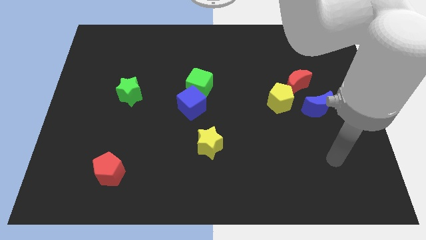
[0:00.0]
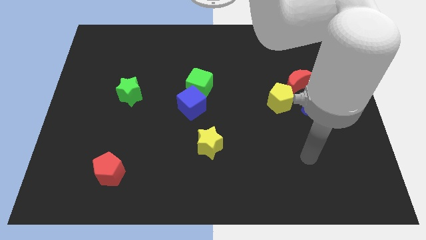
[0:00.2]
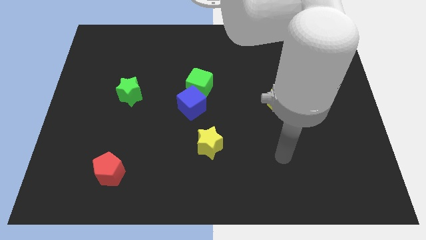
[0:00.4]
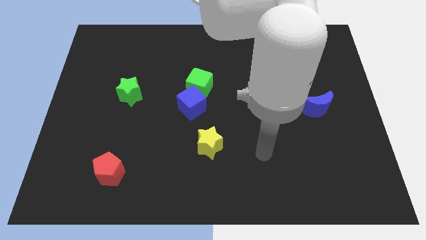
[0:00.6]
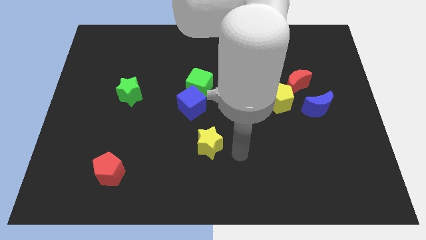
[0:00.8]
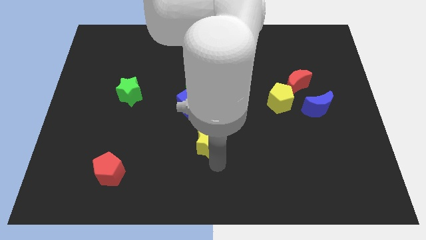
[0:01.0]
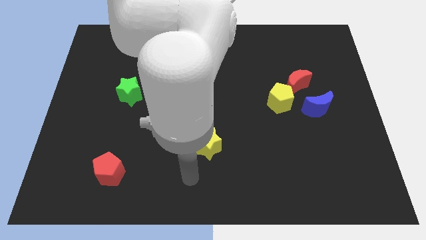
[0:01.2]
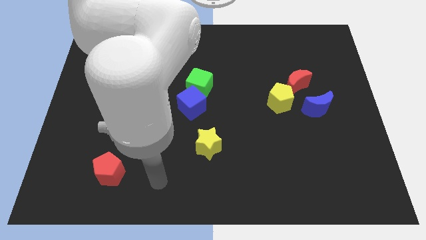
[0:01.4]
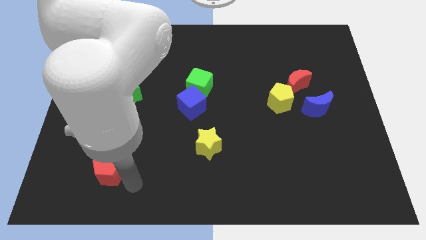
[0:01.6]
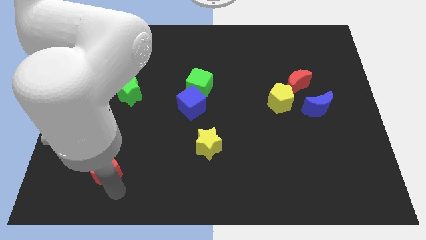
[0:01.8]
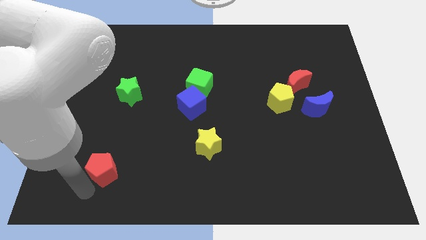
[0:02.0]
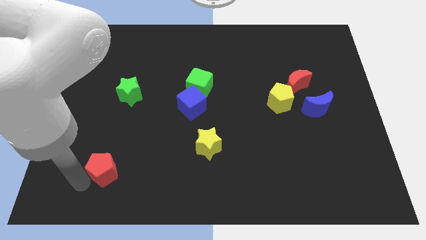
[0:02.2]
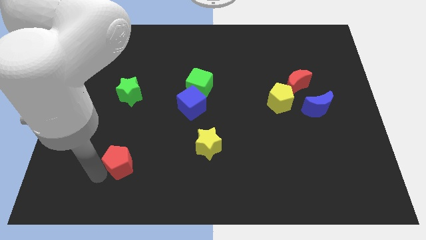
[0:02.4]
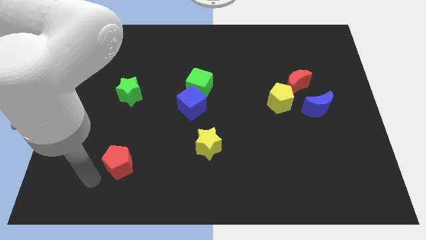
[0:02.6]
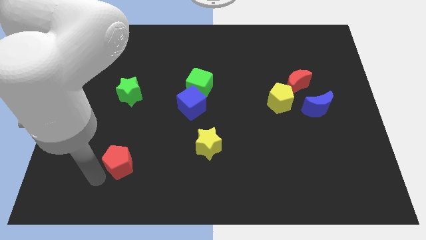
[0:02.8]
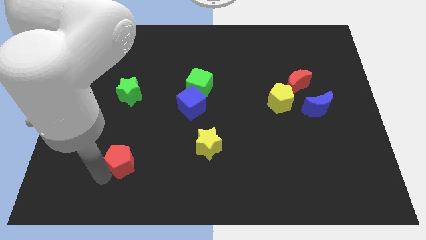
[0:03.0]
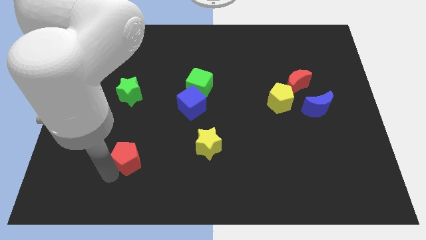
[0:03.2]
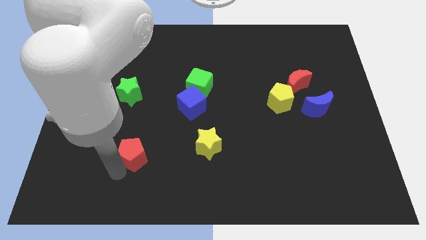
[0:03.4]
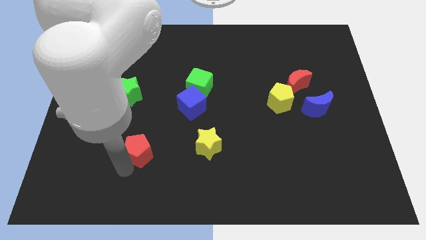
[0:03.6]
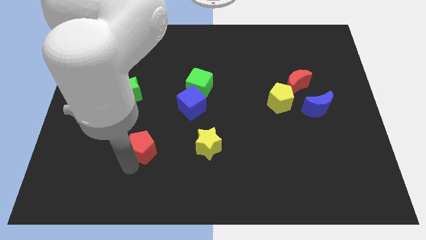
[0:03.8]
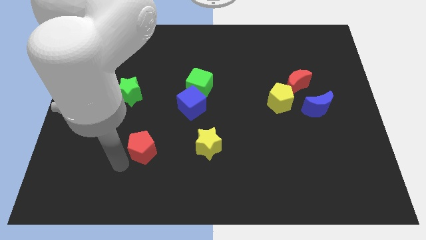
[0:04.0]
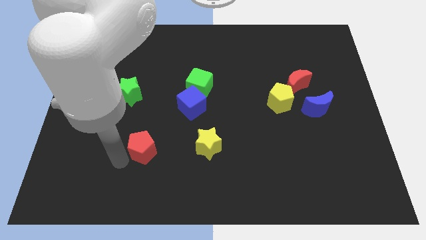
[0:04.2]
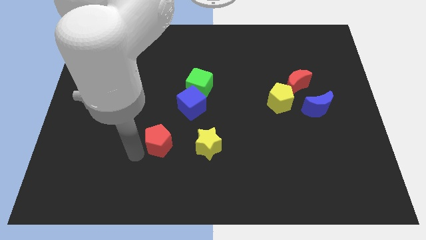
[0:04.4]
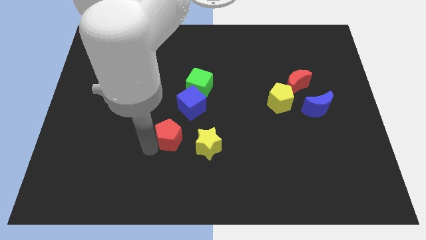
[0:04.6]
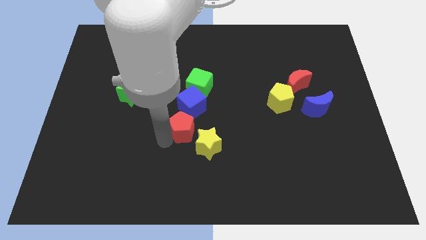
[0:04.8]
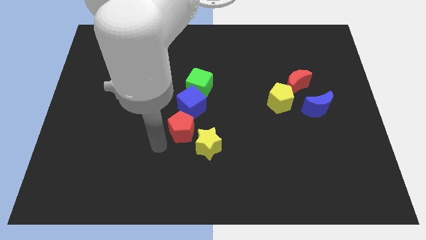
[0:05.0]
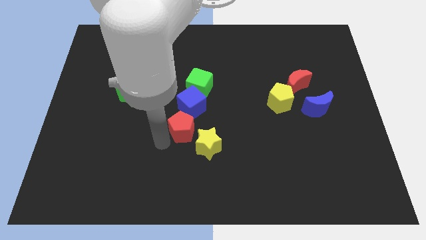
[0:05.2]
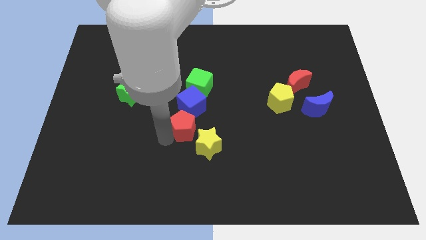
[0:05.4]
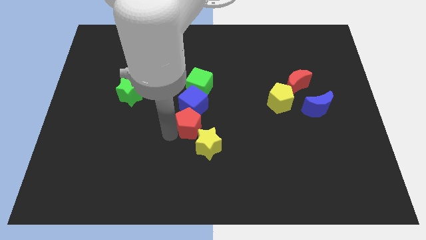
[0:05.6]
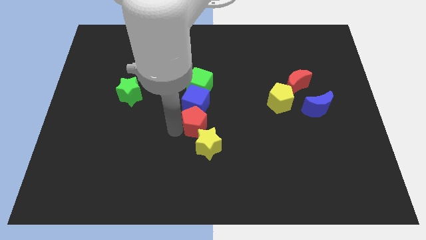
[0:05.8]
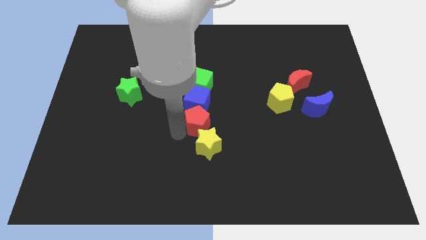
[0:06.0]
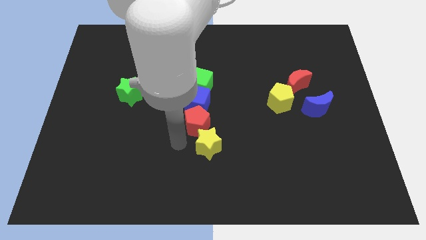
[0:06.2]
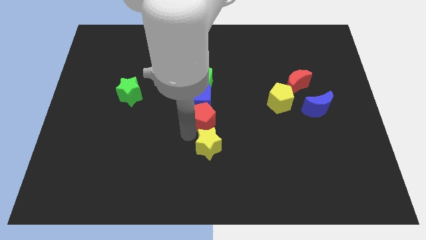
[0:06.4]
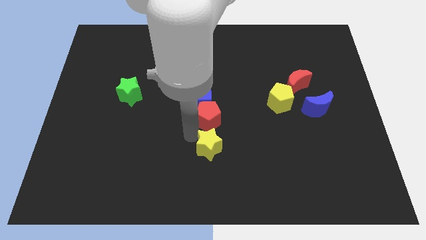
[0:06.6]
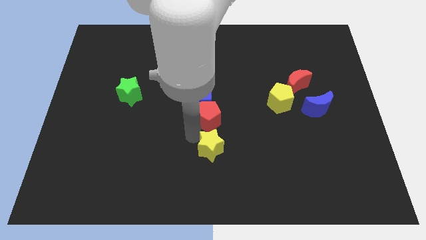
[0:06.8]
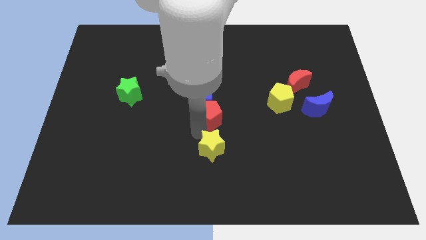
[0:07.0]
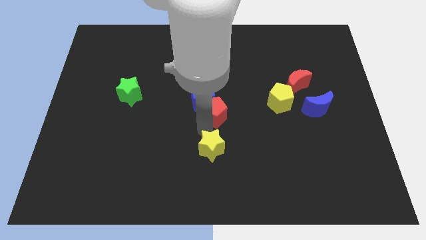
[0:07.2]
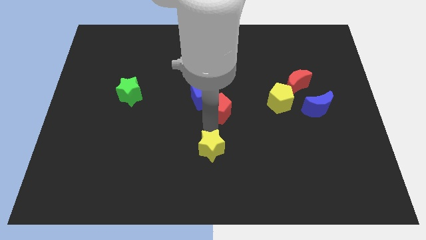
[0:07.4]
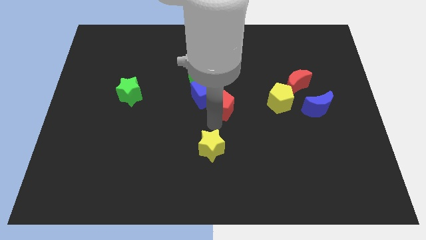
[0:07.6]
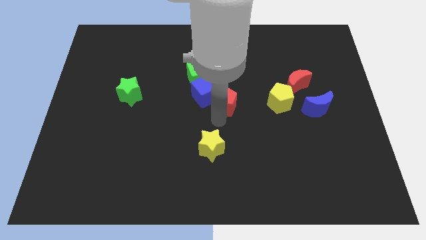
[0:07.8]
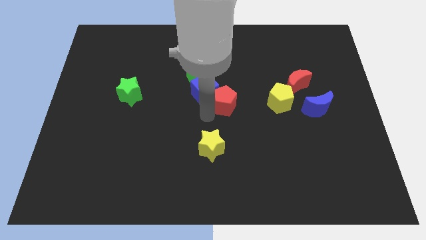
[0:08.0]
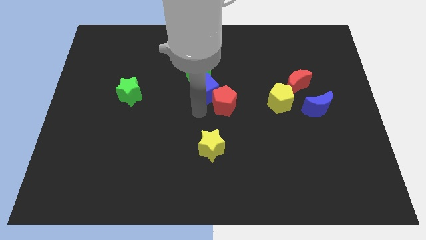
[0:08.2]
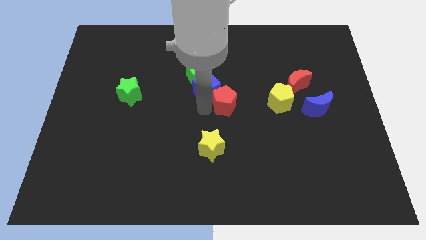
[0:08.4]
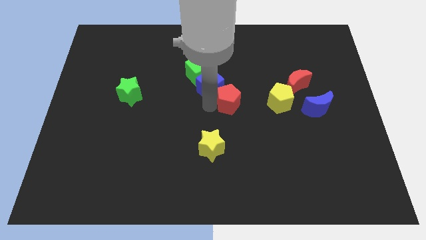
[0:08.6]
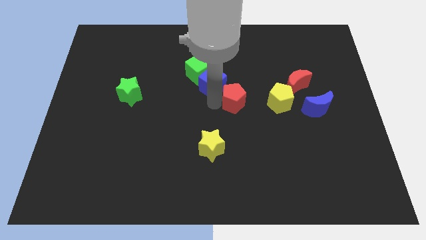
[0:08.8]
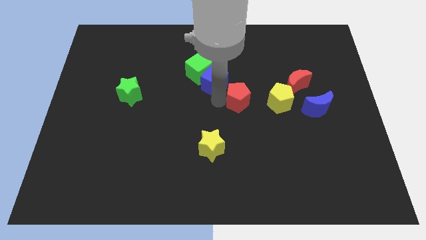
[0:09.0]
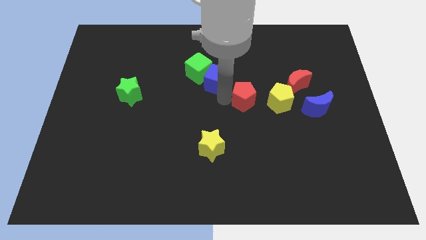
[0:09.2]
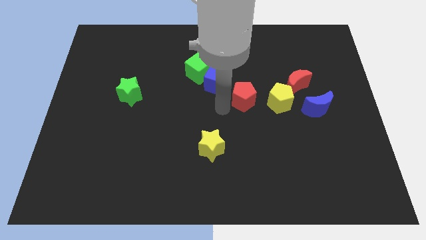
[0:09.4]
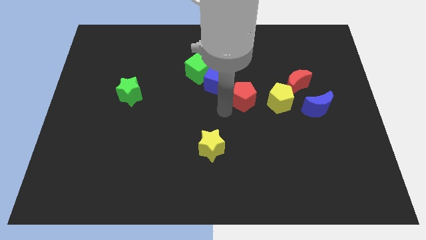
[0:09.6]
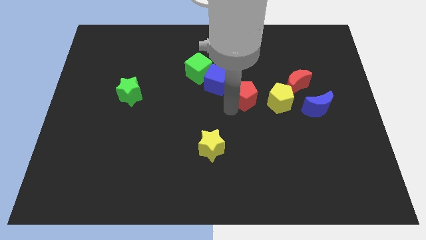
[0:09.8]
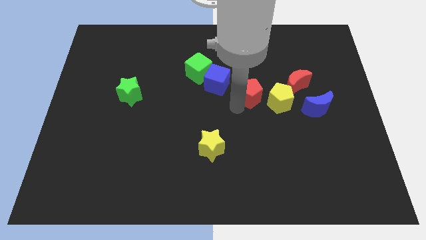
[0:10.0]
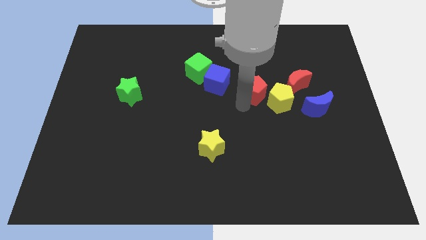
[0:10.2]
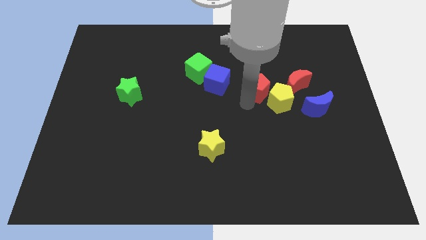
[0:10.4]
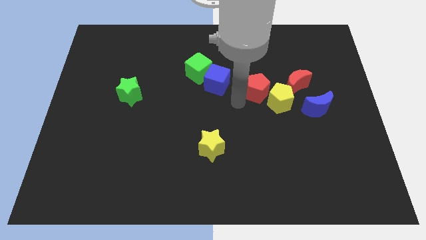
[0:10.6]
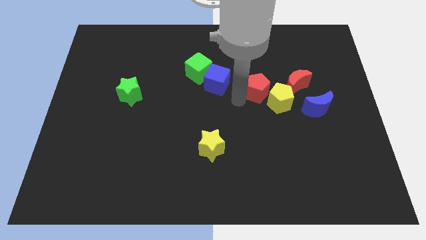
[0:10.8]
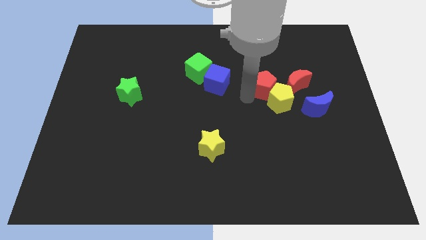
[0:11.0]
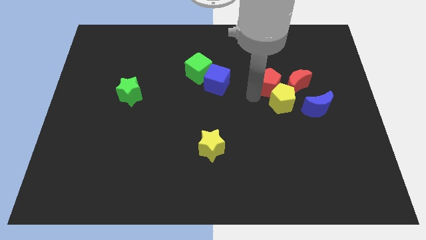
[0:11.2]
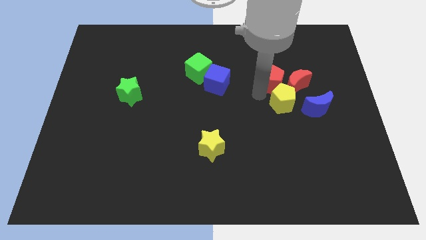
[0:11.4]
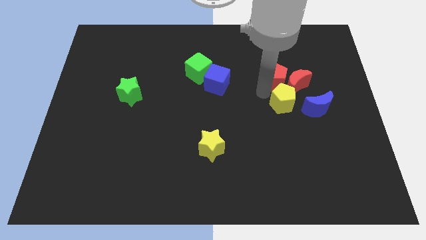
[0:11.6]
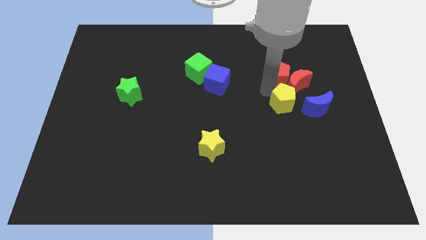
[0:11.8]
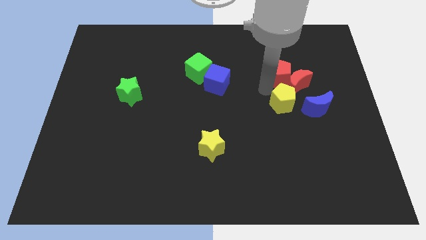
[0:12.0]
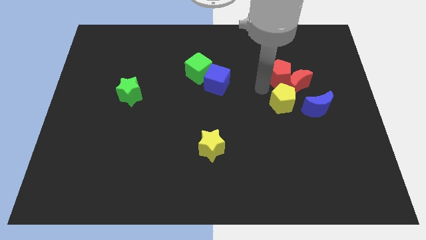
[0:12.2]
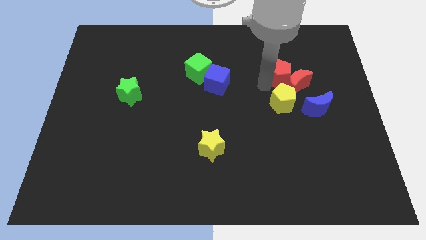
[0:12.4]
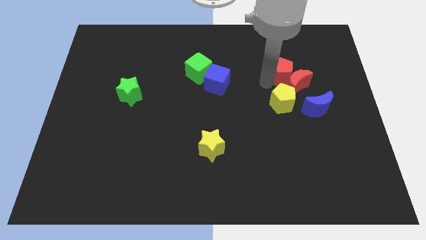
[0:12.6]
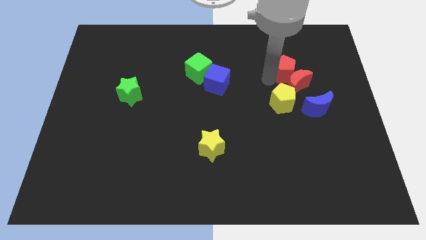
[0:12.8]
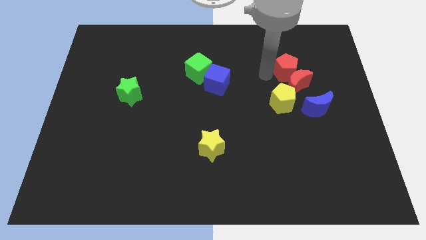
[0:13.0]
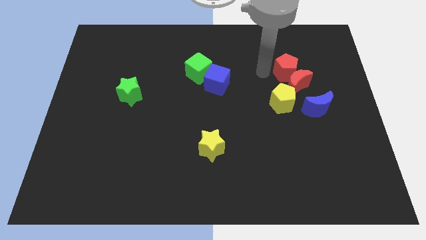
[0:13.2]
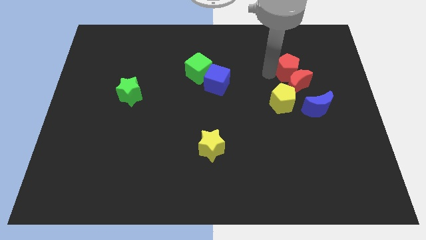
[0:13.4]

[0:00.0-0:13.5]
slide the red pentagon to the top right of the red moon
